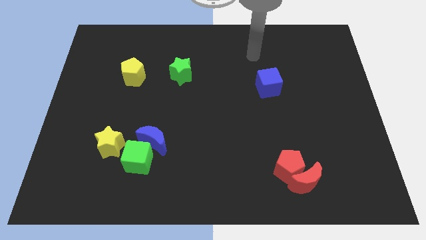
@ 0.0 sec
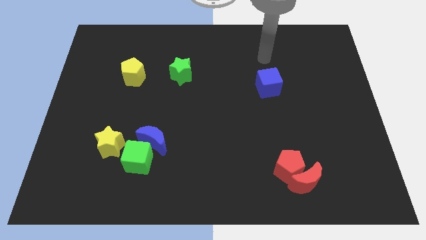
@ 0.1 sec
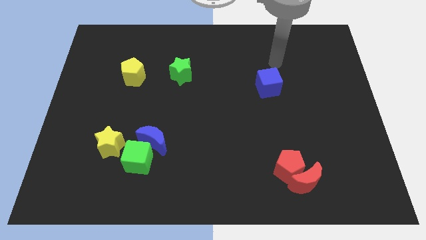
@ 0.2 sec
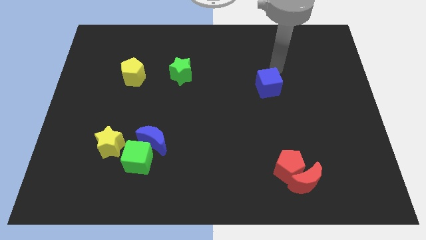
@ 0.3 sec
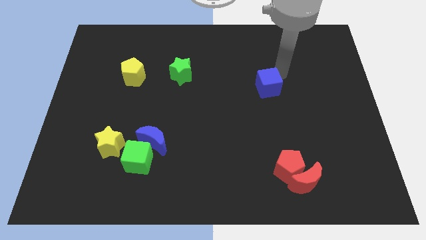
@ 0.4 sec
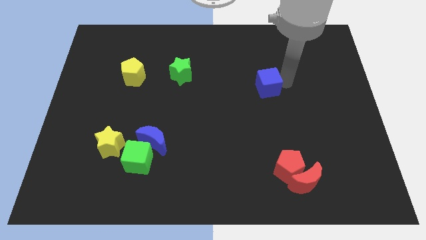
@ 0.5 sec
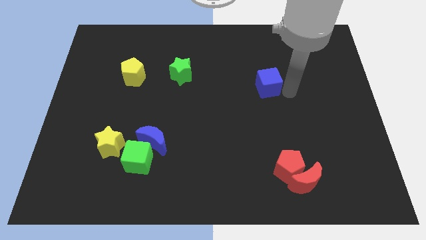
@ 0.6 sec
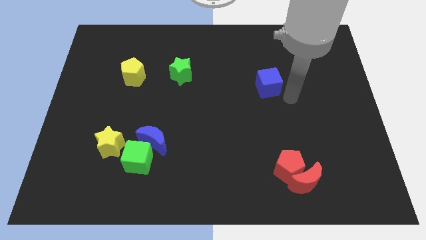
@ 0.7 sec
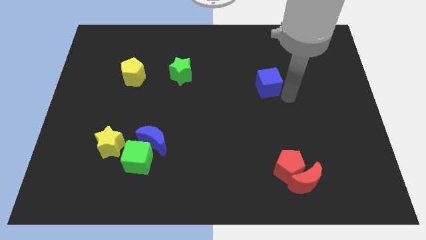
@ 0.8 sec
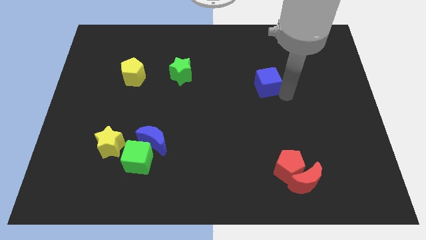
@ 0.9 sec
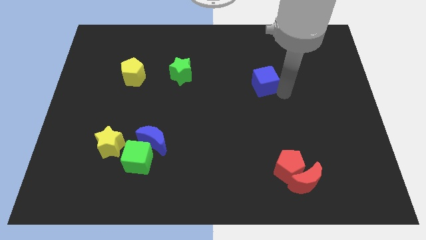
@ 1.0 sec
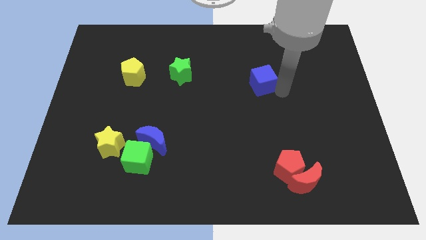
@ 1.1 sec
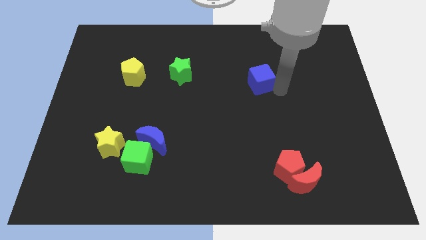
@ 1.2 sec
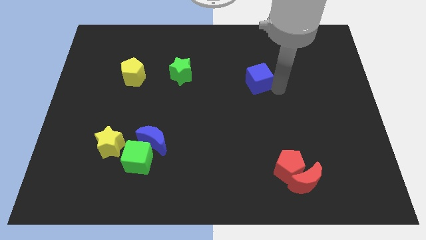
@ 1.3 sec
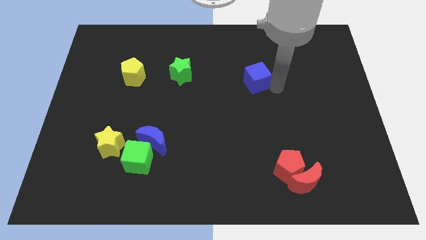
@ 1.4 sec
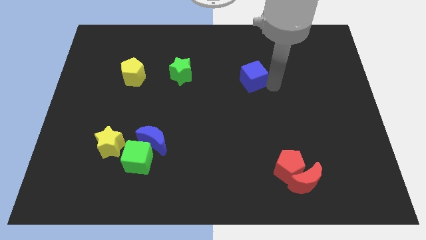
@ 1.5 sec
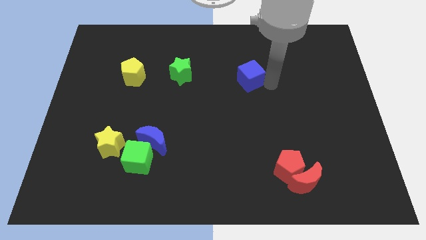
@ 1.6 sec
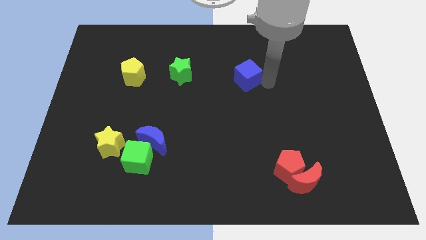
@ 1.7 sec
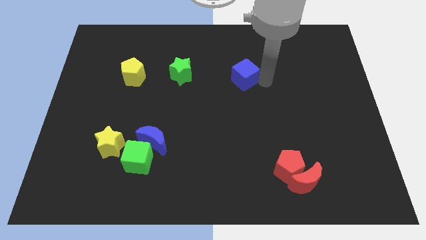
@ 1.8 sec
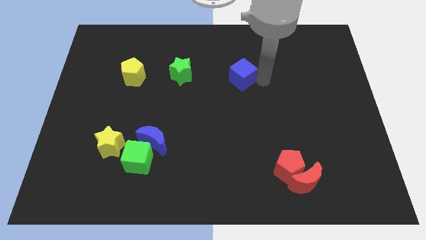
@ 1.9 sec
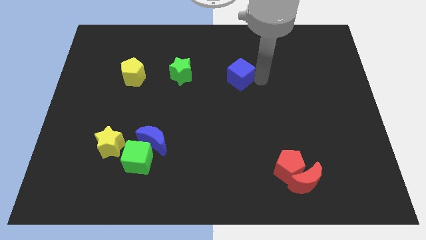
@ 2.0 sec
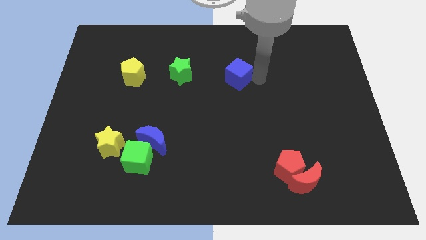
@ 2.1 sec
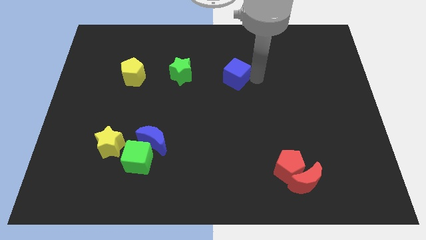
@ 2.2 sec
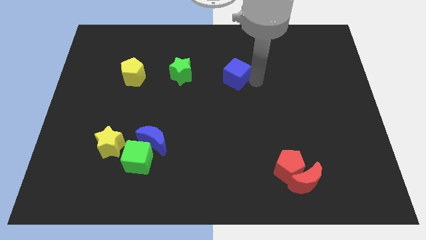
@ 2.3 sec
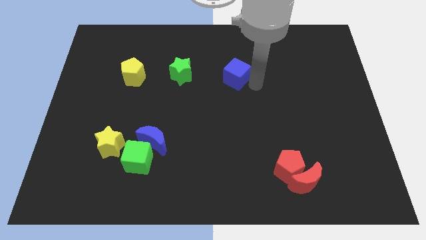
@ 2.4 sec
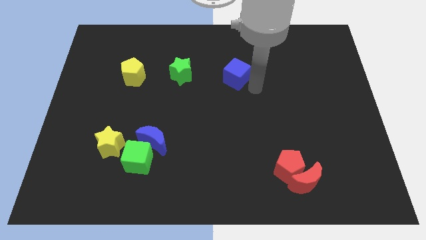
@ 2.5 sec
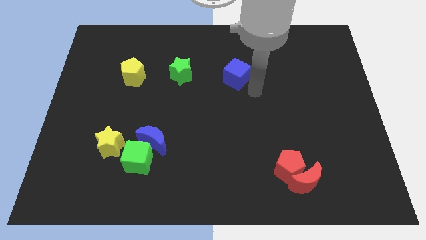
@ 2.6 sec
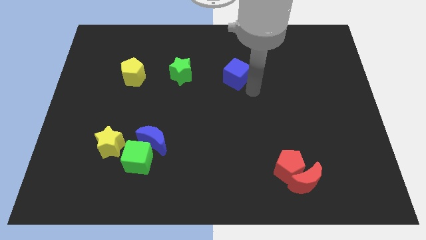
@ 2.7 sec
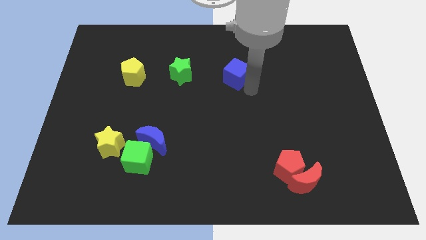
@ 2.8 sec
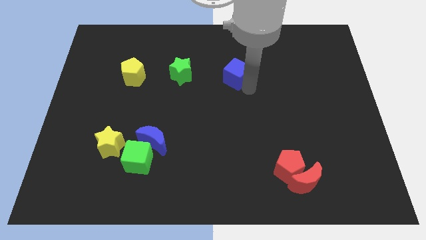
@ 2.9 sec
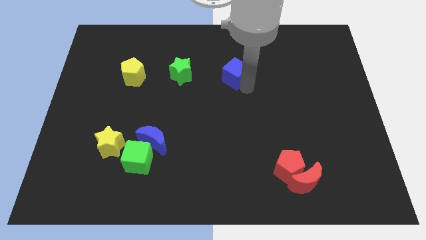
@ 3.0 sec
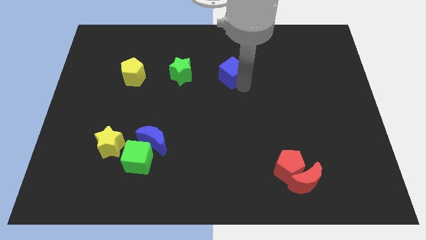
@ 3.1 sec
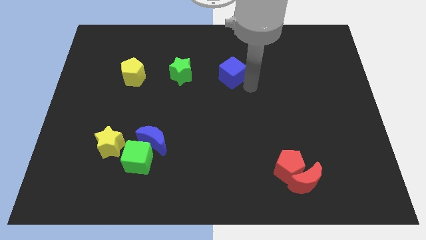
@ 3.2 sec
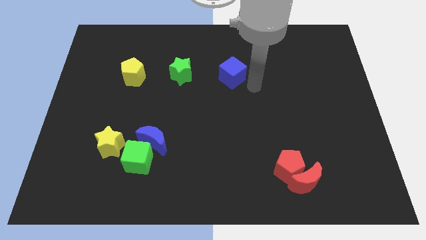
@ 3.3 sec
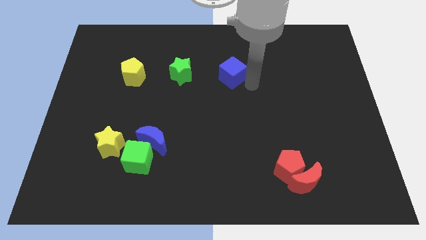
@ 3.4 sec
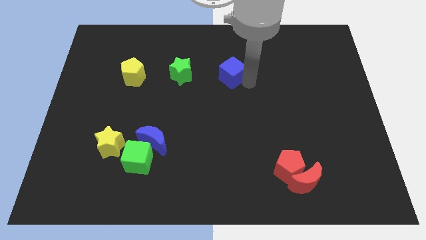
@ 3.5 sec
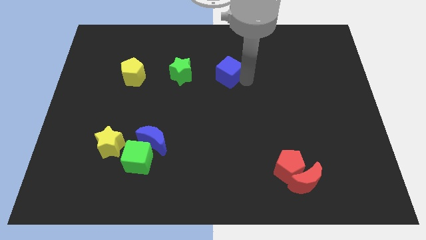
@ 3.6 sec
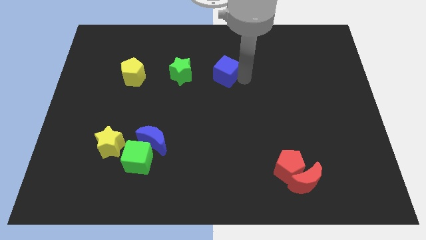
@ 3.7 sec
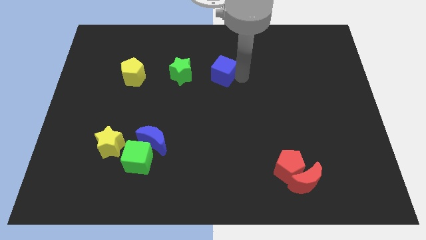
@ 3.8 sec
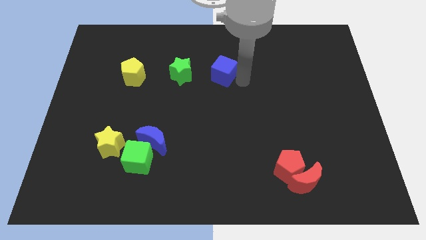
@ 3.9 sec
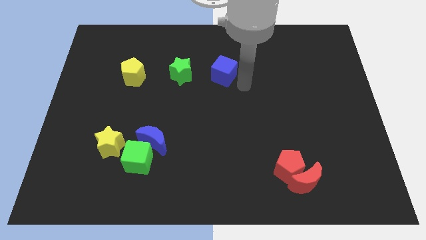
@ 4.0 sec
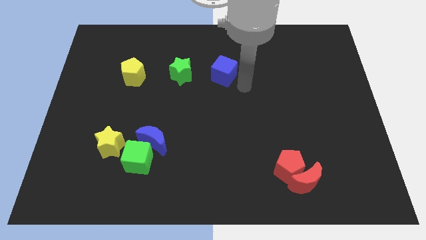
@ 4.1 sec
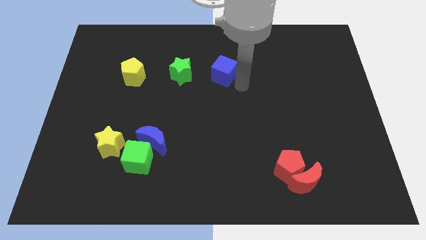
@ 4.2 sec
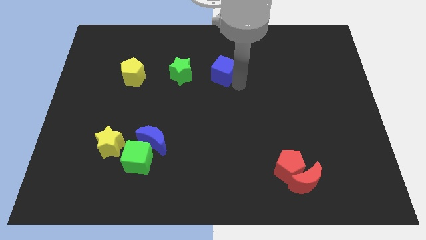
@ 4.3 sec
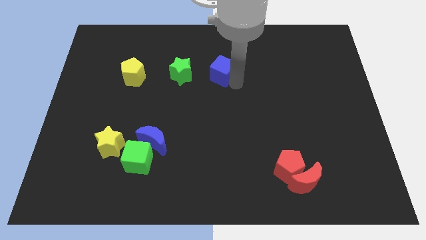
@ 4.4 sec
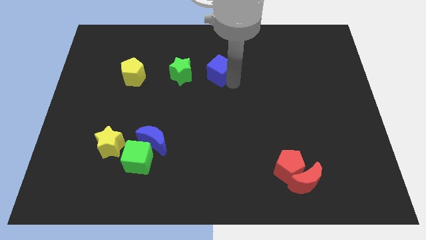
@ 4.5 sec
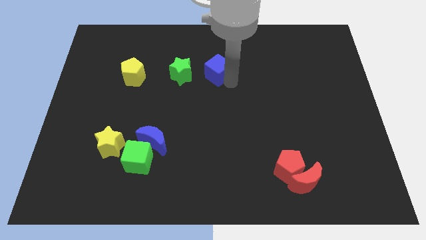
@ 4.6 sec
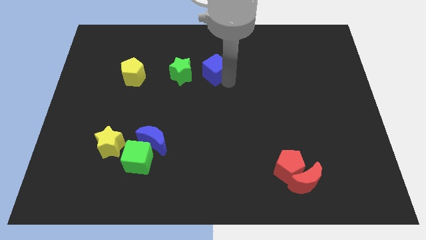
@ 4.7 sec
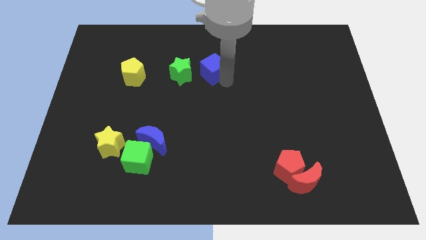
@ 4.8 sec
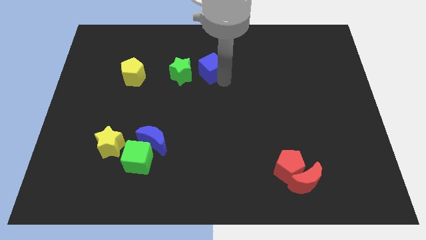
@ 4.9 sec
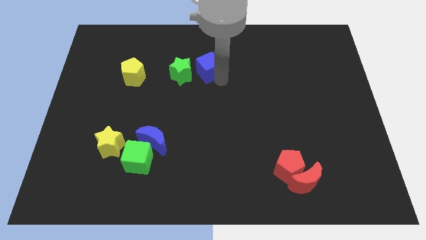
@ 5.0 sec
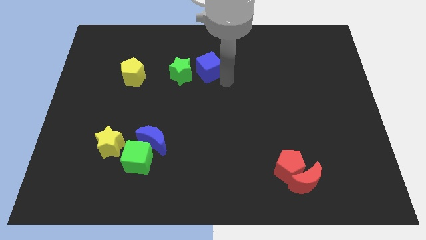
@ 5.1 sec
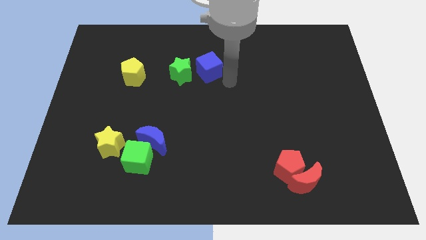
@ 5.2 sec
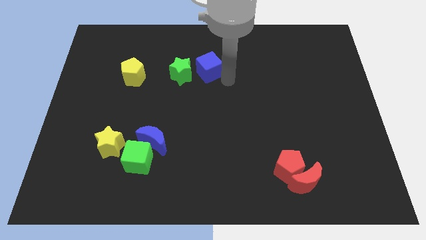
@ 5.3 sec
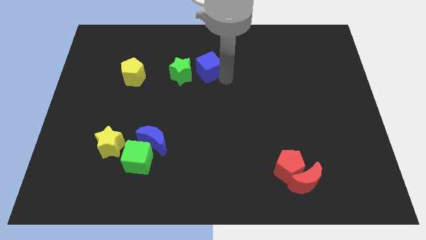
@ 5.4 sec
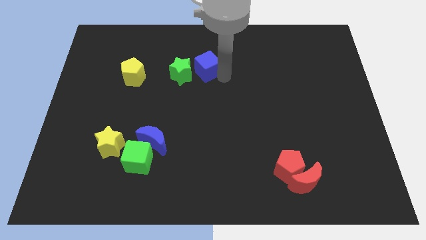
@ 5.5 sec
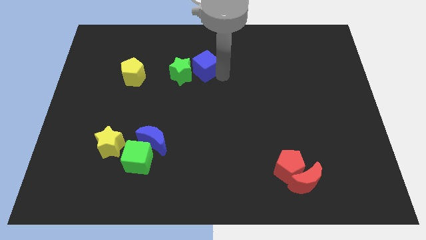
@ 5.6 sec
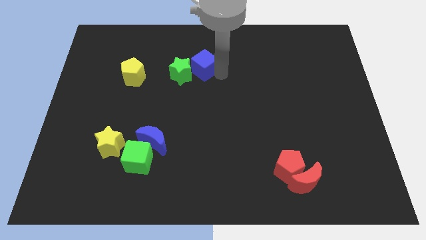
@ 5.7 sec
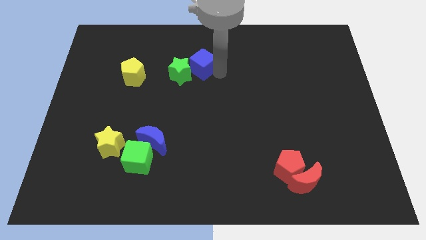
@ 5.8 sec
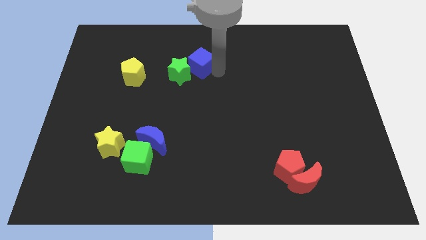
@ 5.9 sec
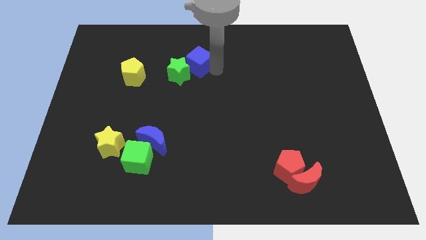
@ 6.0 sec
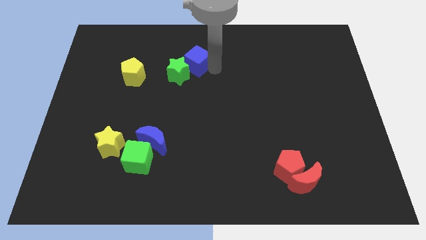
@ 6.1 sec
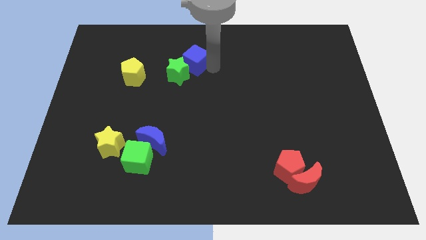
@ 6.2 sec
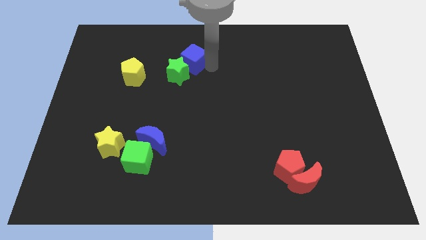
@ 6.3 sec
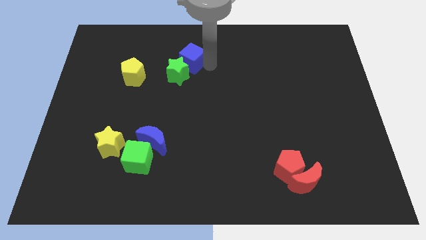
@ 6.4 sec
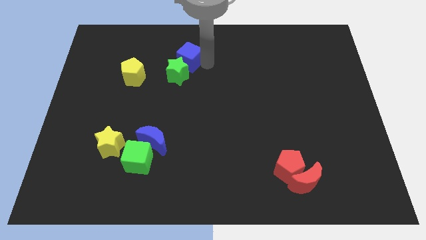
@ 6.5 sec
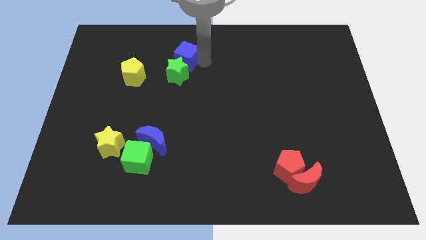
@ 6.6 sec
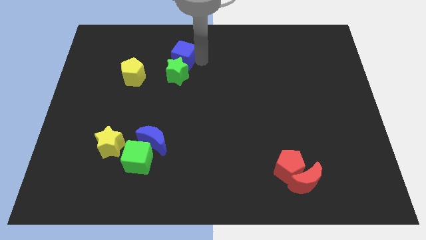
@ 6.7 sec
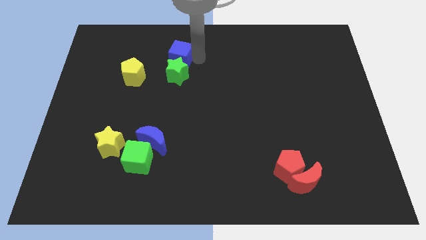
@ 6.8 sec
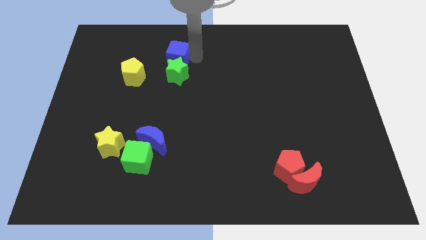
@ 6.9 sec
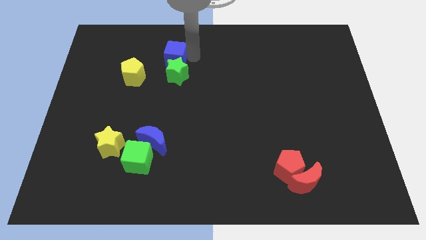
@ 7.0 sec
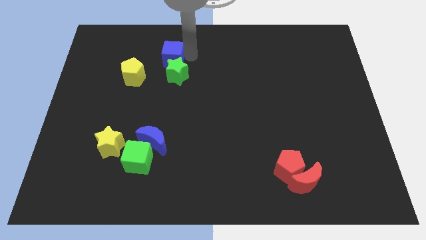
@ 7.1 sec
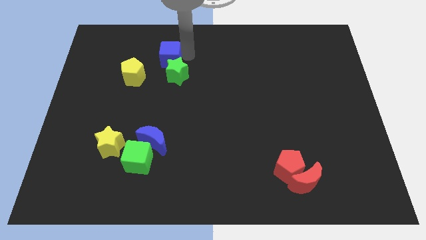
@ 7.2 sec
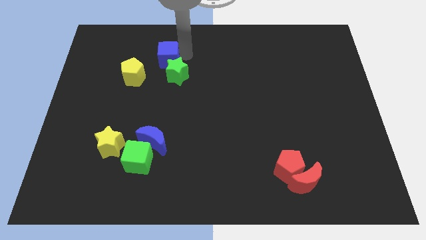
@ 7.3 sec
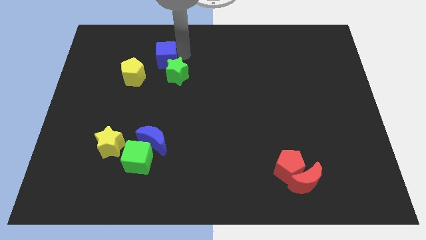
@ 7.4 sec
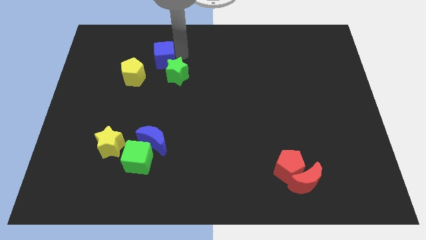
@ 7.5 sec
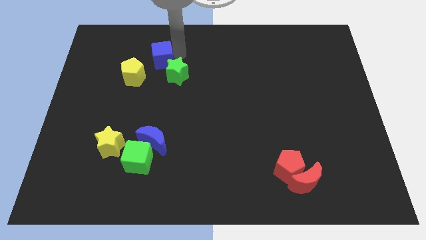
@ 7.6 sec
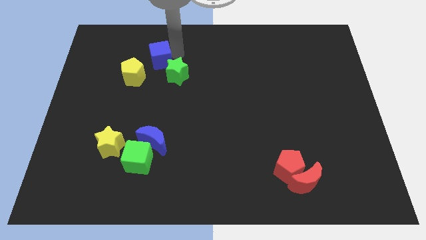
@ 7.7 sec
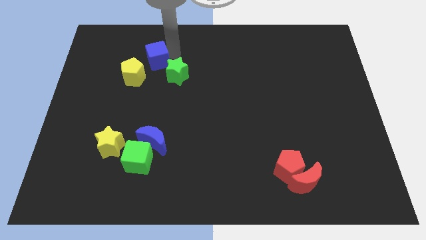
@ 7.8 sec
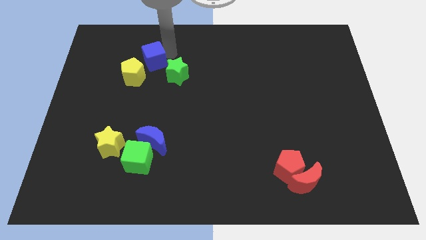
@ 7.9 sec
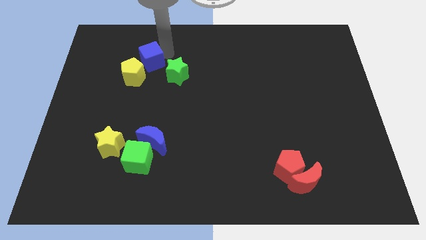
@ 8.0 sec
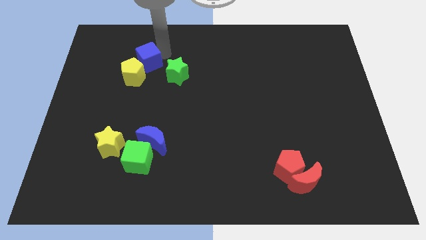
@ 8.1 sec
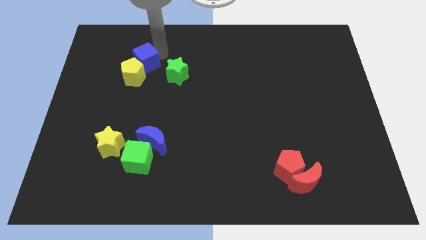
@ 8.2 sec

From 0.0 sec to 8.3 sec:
slide the blue cube towards the yellow pentagon
